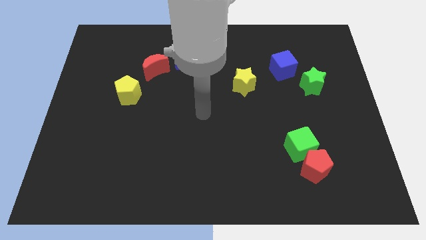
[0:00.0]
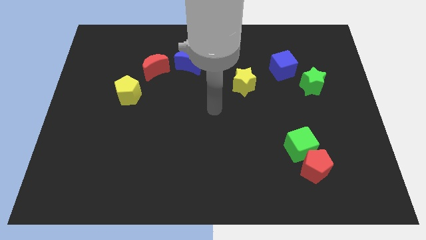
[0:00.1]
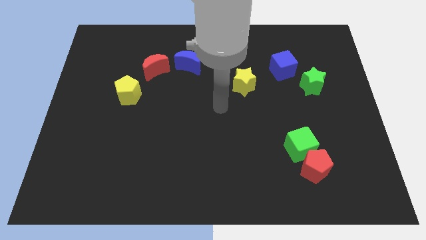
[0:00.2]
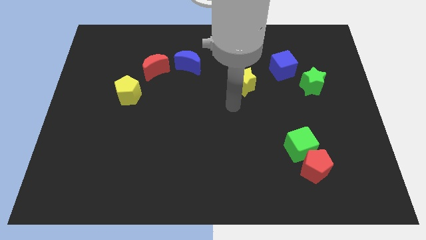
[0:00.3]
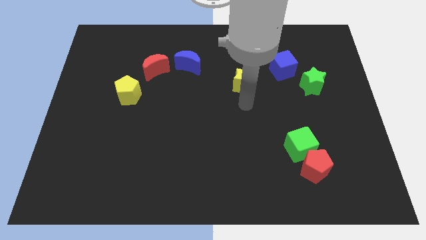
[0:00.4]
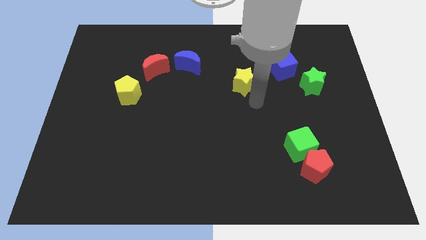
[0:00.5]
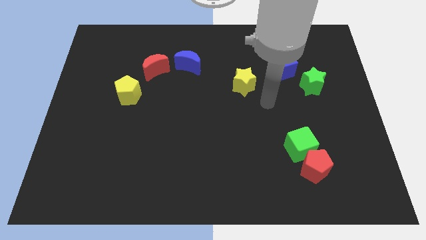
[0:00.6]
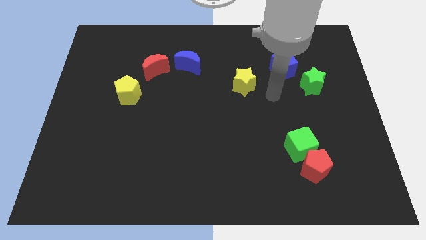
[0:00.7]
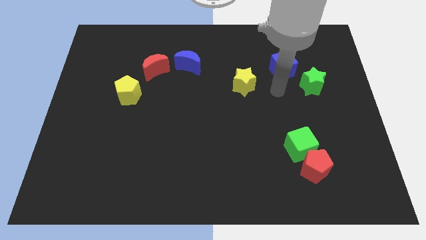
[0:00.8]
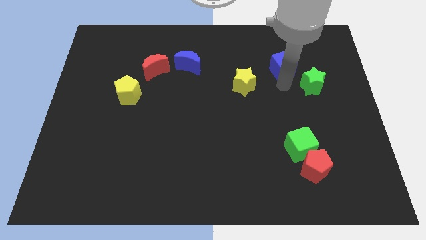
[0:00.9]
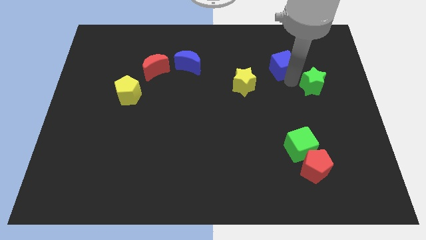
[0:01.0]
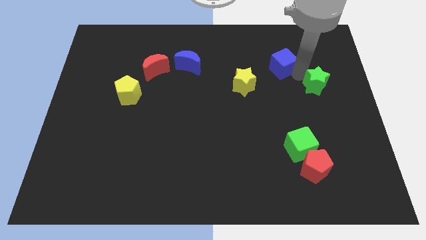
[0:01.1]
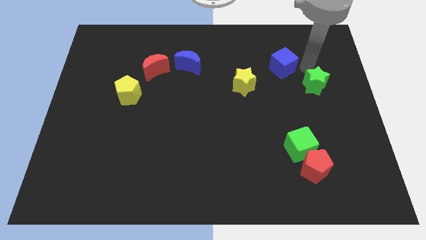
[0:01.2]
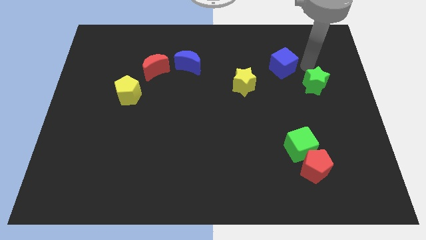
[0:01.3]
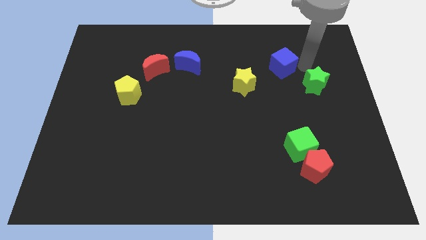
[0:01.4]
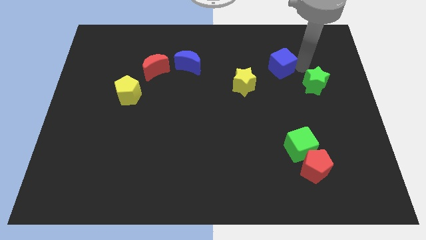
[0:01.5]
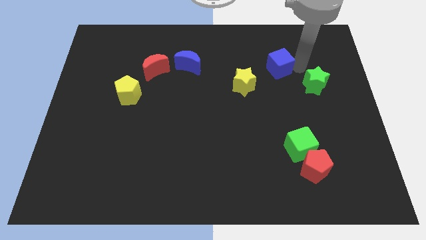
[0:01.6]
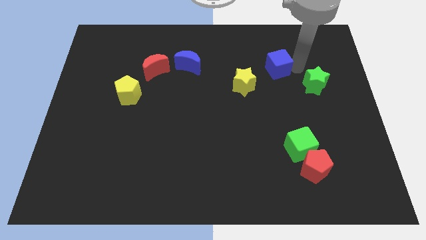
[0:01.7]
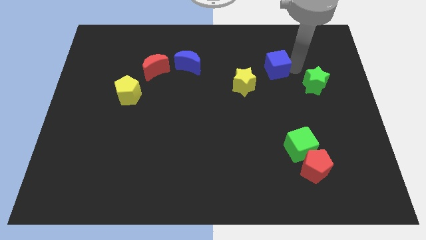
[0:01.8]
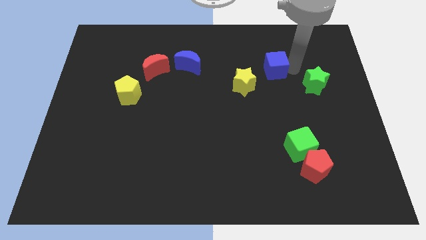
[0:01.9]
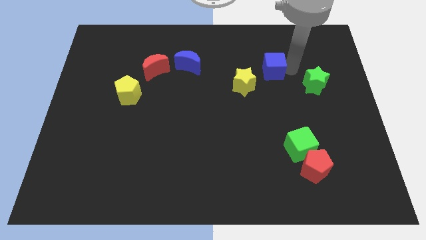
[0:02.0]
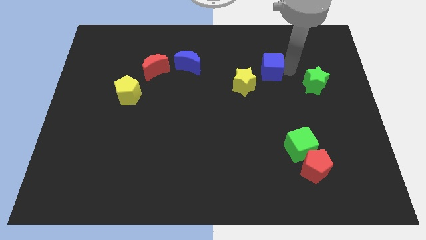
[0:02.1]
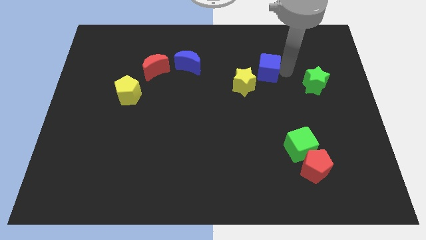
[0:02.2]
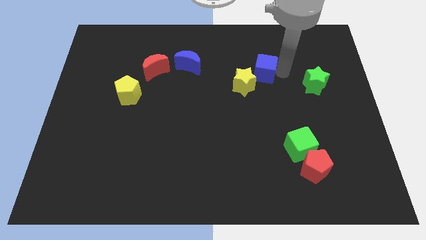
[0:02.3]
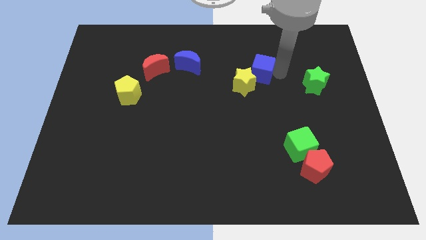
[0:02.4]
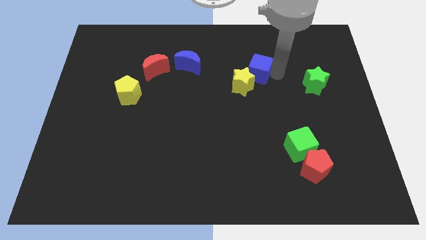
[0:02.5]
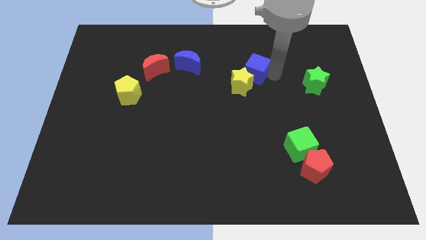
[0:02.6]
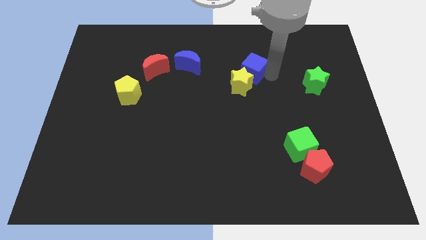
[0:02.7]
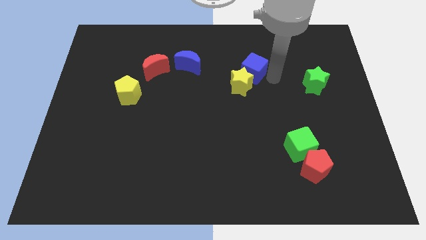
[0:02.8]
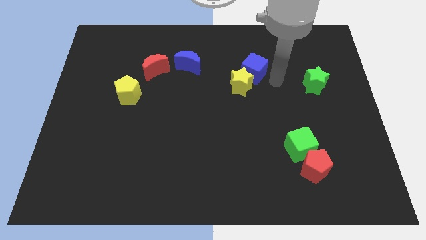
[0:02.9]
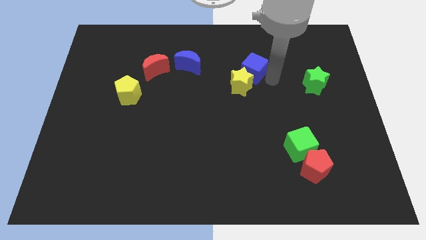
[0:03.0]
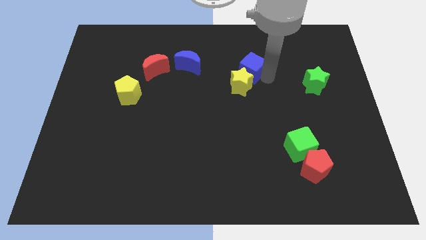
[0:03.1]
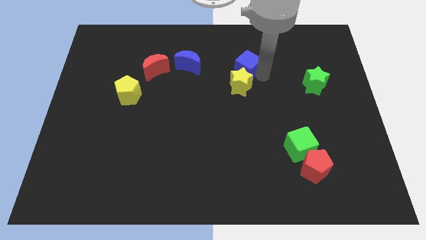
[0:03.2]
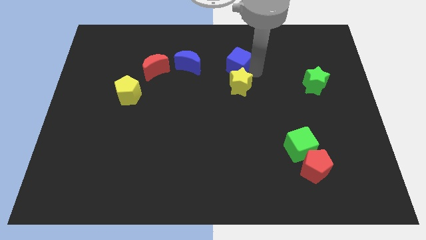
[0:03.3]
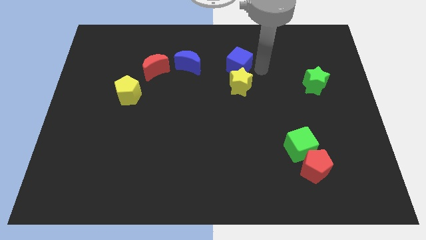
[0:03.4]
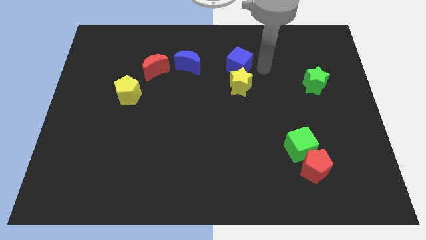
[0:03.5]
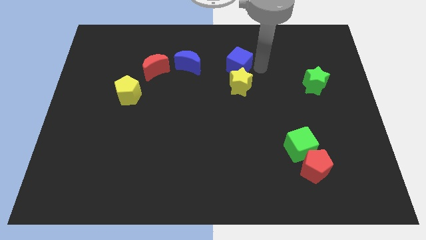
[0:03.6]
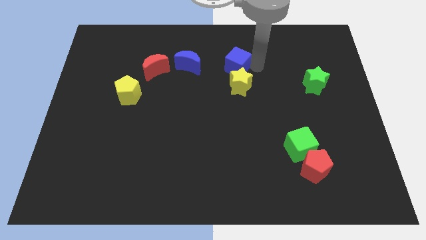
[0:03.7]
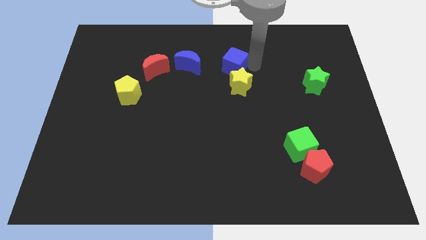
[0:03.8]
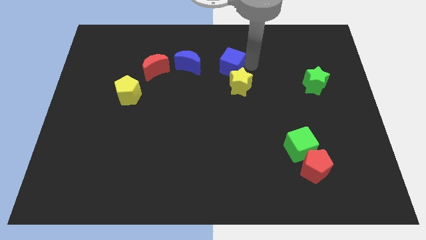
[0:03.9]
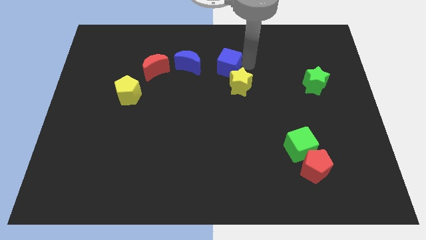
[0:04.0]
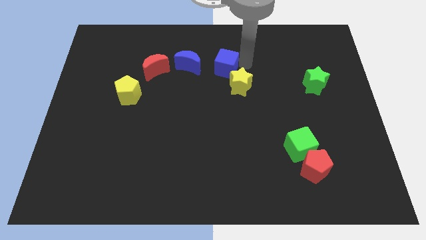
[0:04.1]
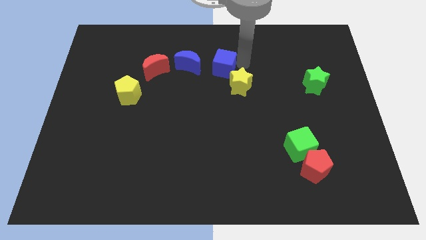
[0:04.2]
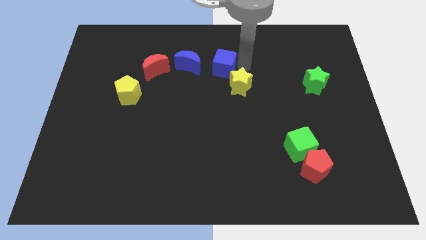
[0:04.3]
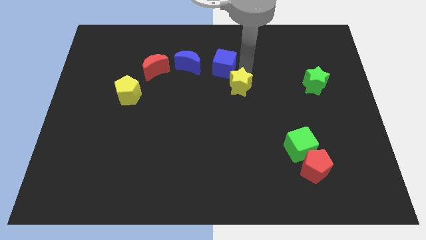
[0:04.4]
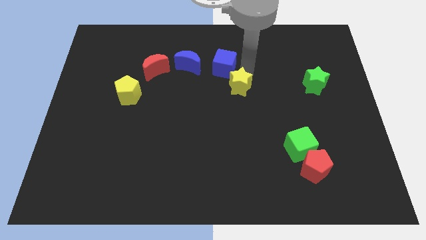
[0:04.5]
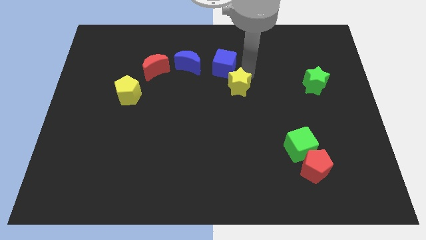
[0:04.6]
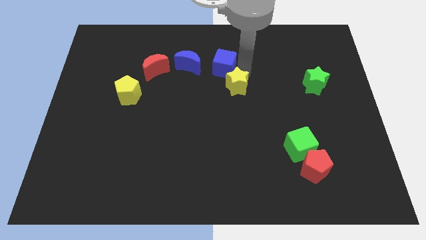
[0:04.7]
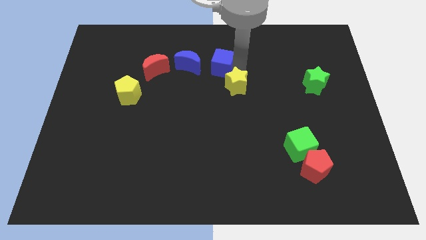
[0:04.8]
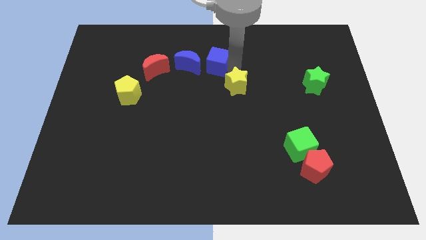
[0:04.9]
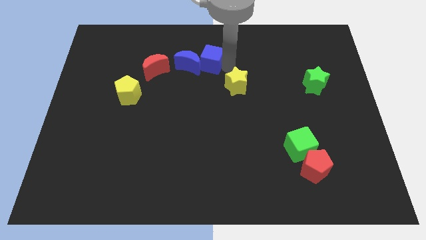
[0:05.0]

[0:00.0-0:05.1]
push the blue cube next to the blue moon

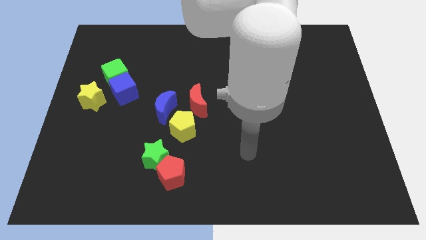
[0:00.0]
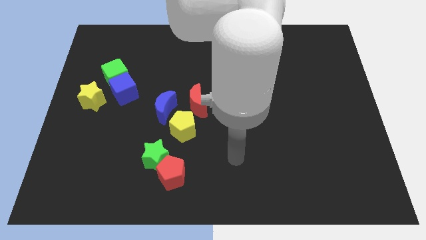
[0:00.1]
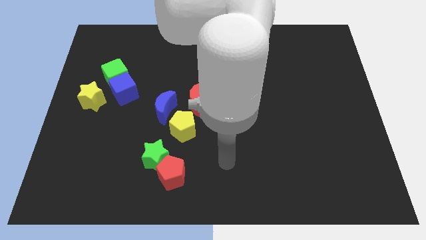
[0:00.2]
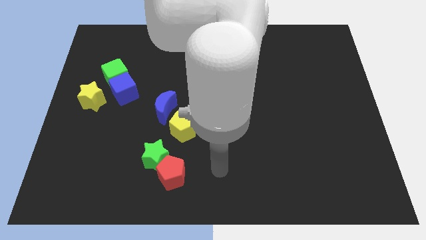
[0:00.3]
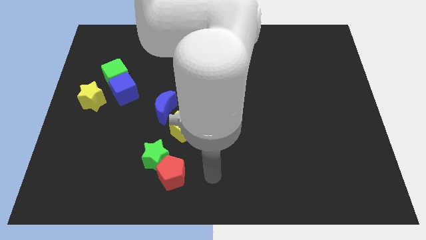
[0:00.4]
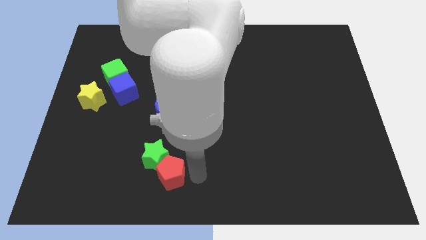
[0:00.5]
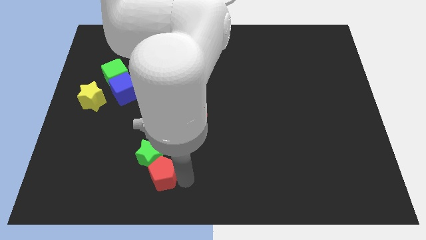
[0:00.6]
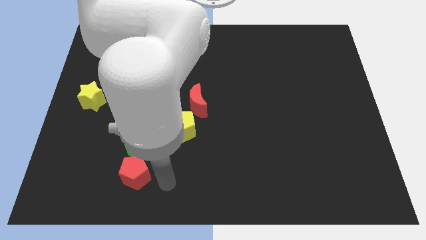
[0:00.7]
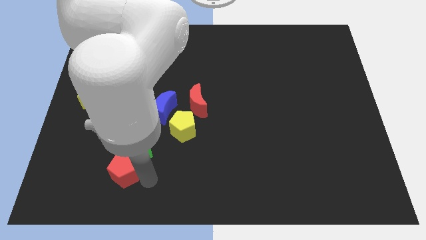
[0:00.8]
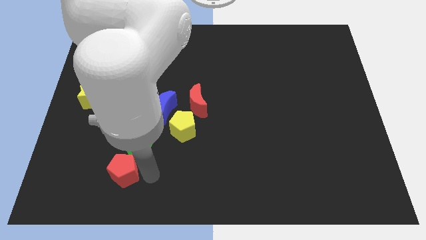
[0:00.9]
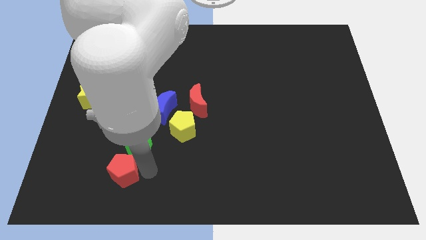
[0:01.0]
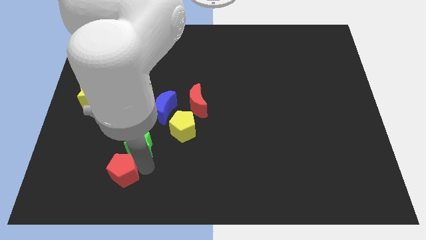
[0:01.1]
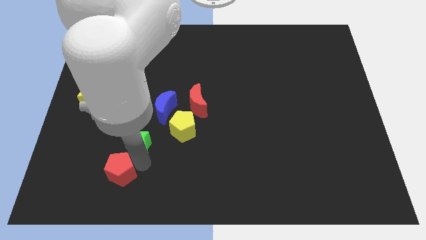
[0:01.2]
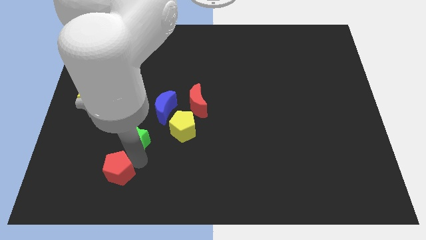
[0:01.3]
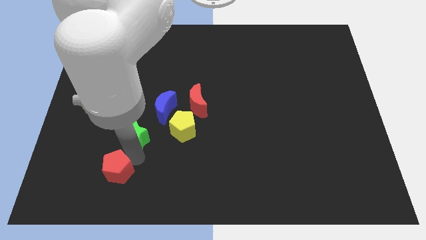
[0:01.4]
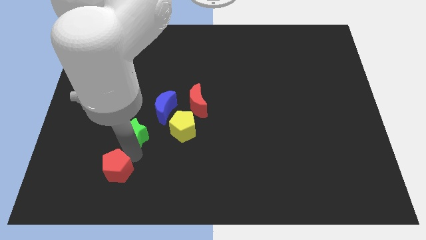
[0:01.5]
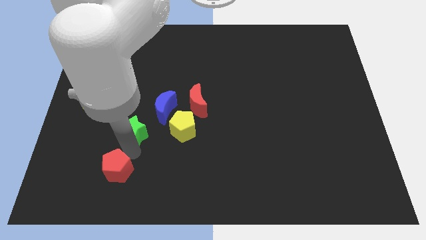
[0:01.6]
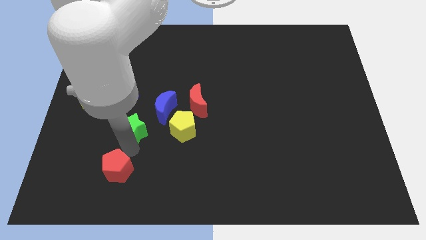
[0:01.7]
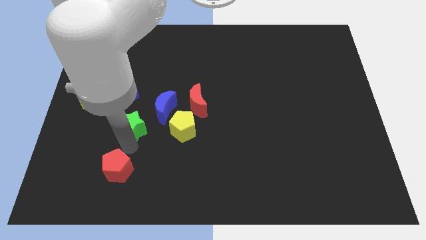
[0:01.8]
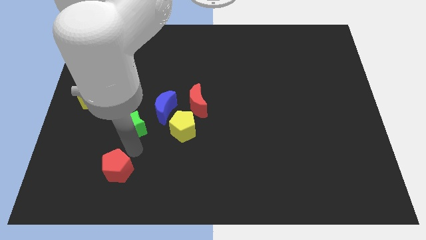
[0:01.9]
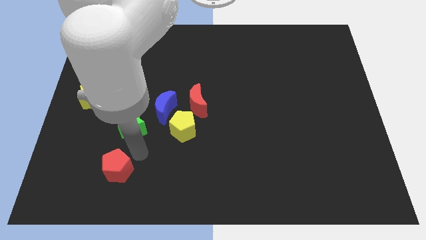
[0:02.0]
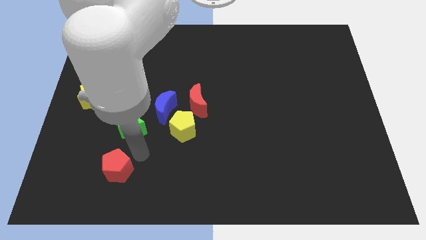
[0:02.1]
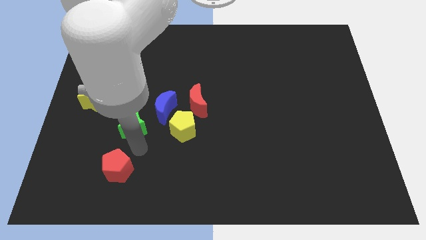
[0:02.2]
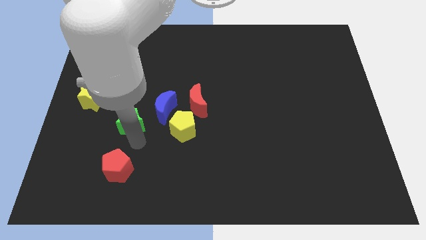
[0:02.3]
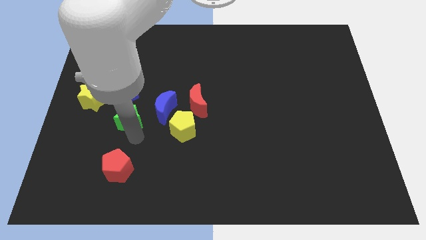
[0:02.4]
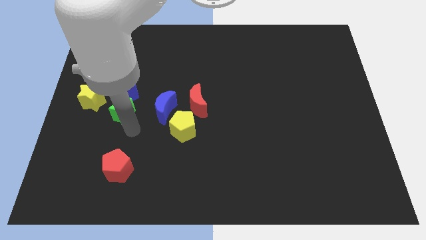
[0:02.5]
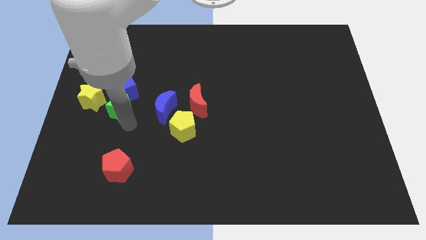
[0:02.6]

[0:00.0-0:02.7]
slide the green star to the blue cube
